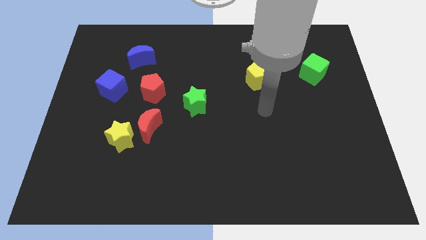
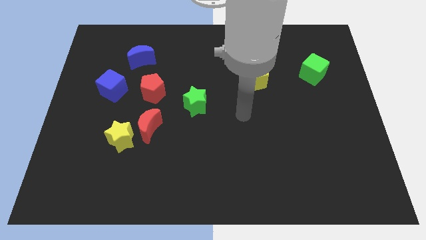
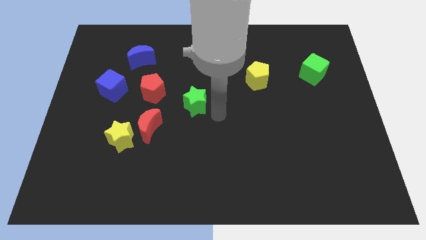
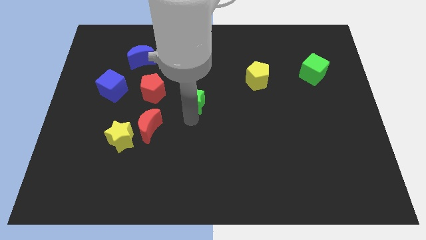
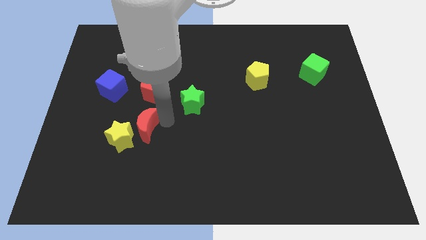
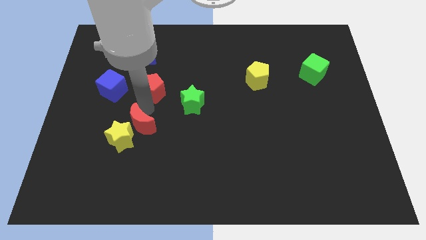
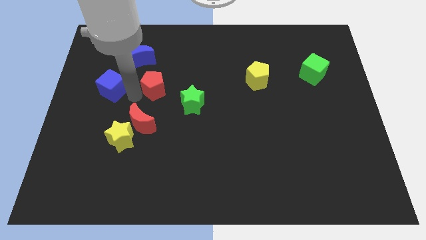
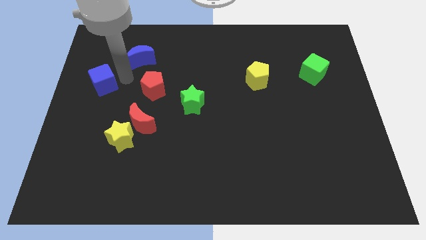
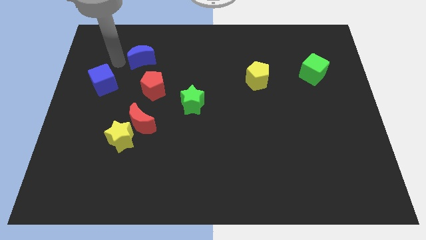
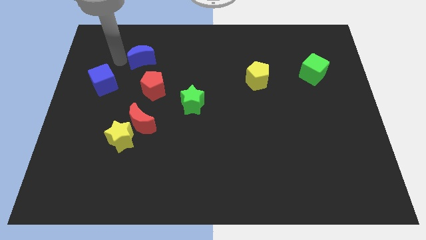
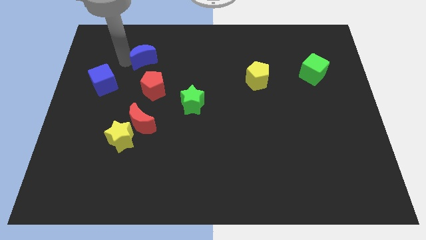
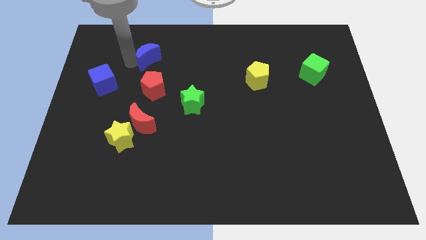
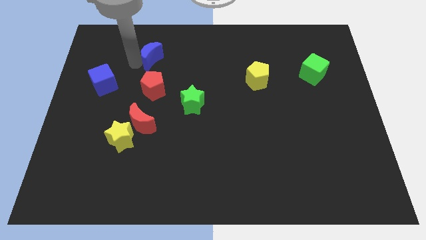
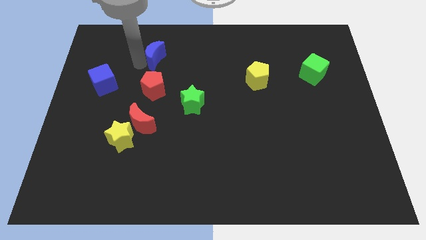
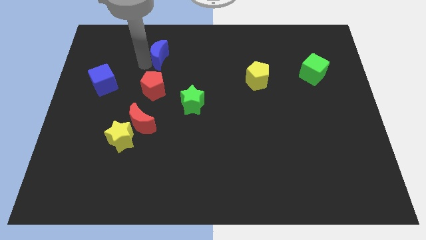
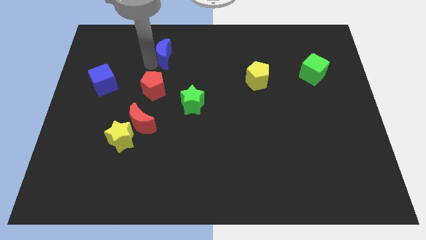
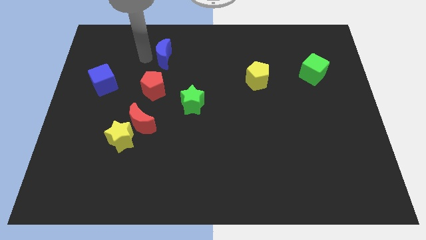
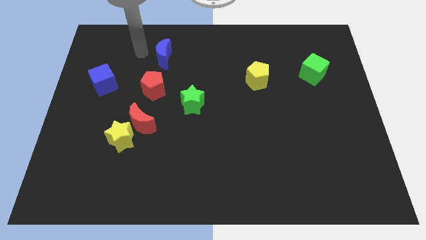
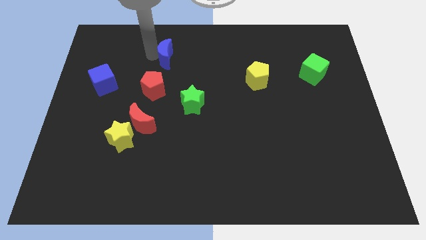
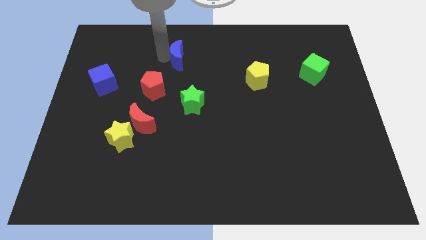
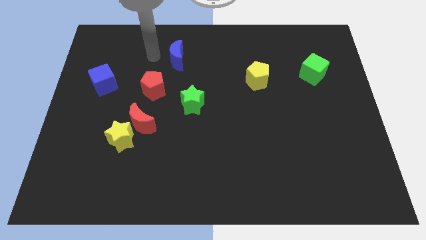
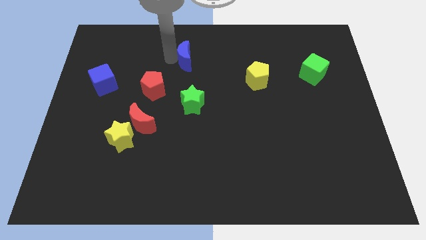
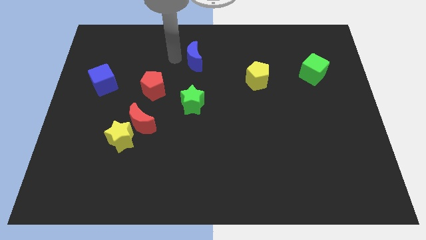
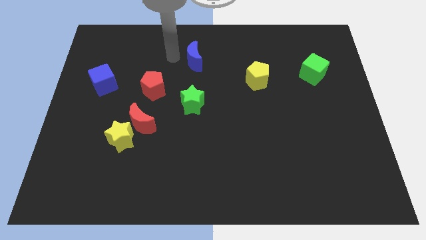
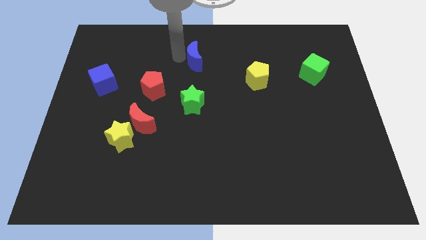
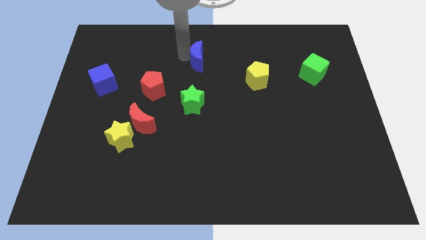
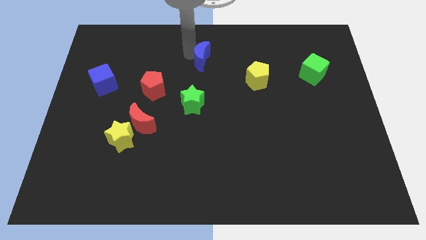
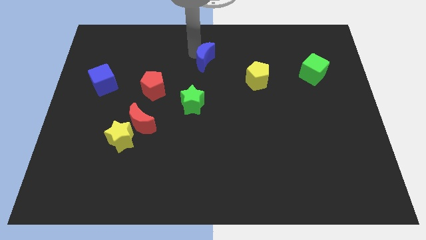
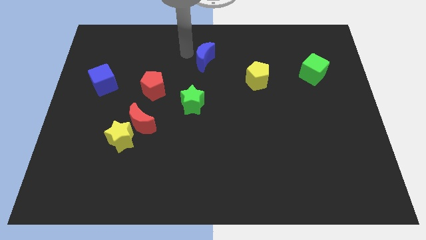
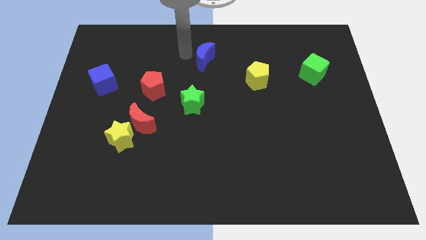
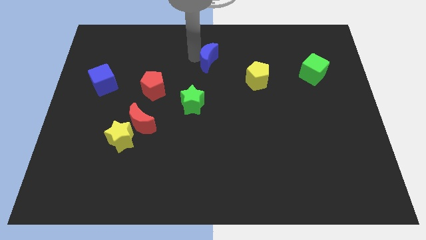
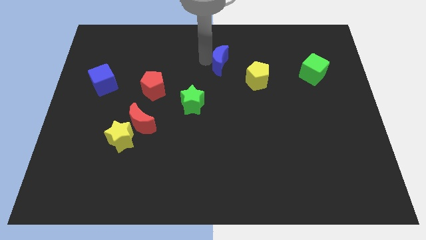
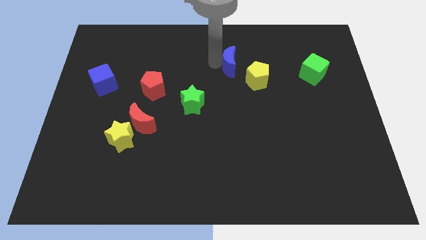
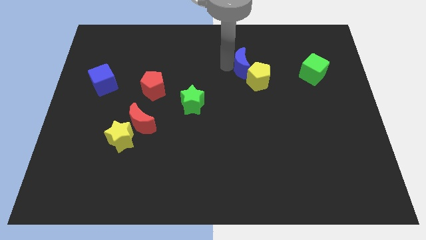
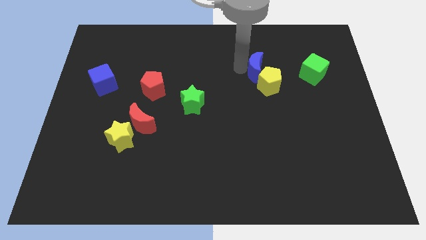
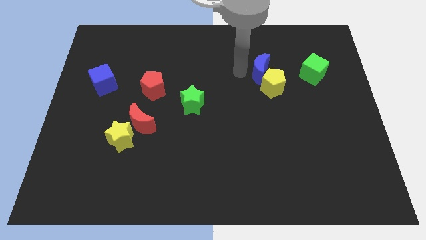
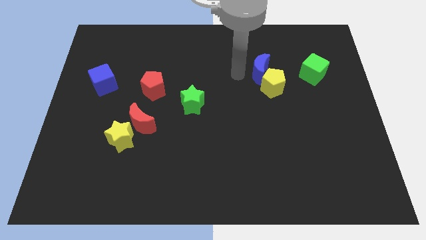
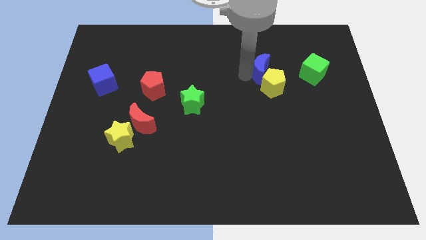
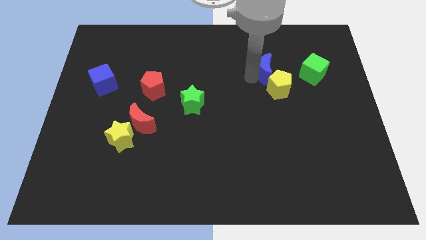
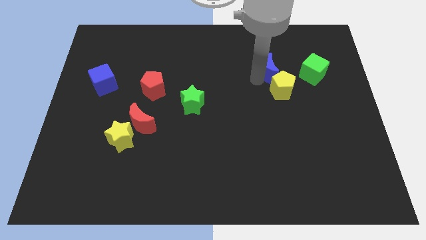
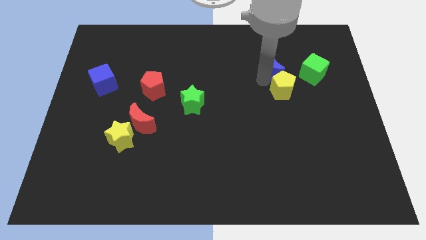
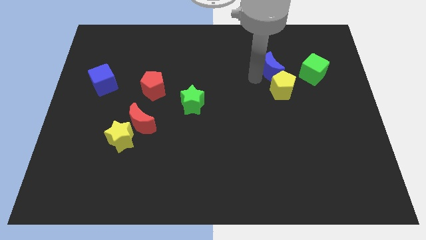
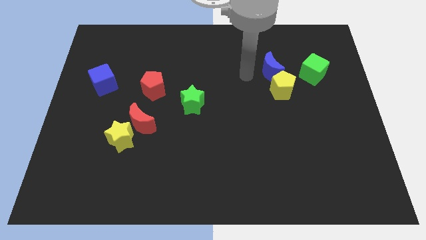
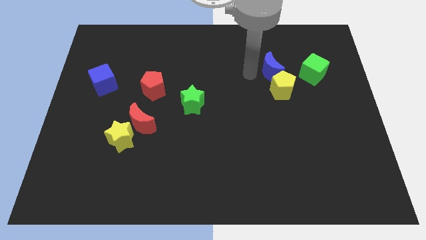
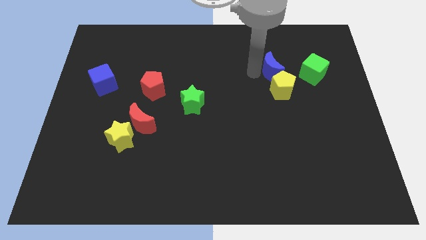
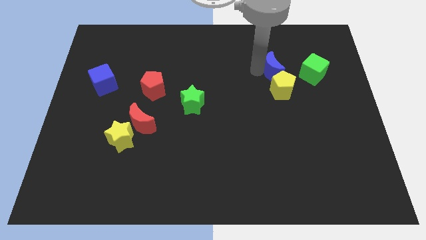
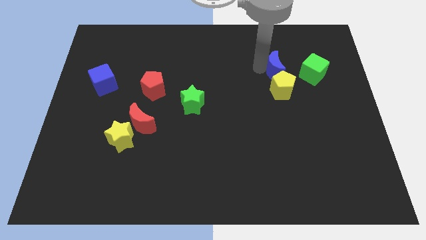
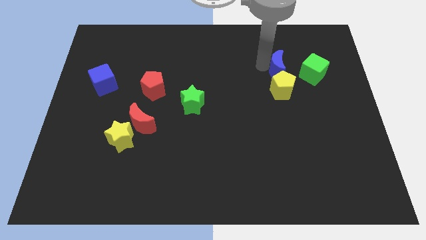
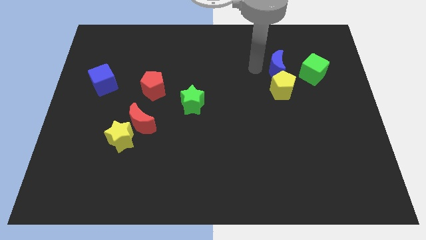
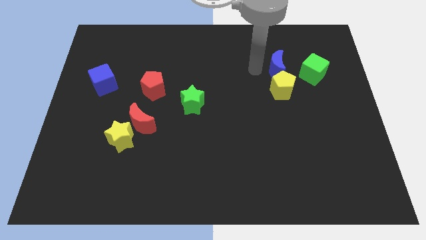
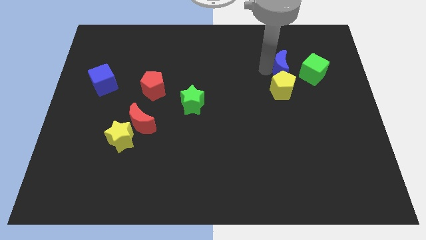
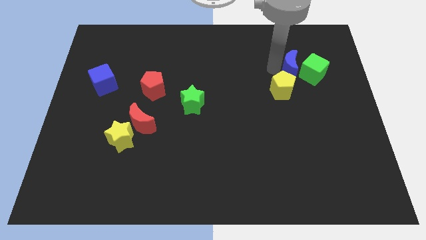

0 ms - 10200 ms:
move the blue moon close to the green cube

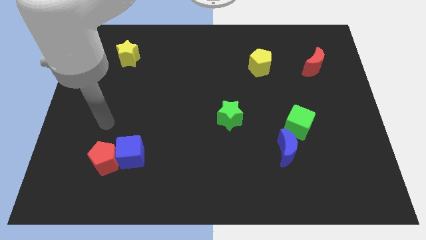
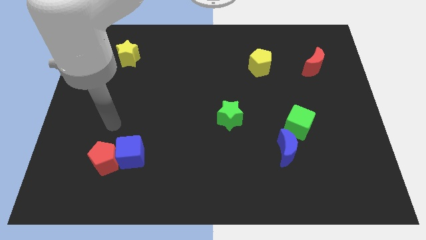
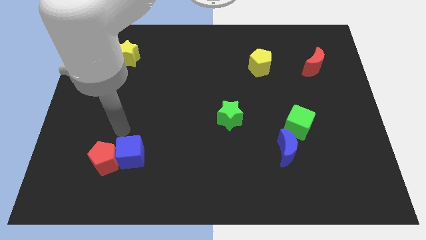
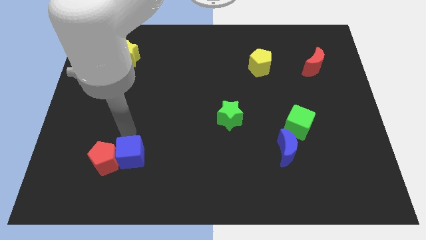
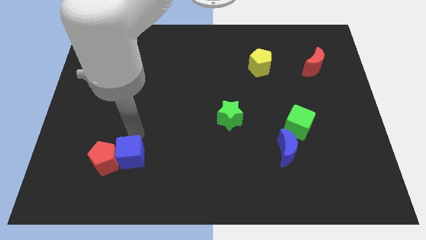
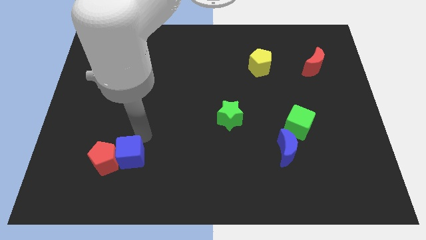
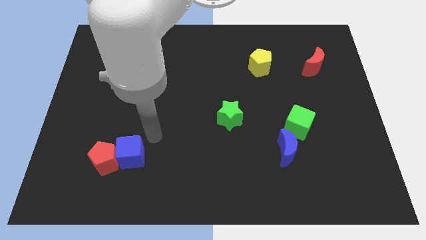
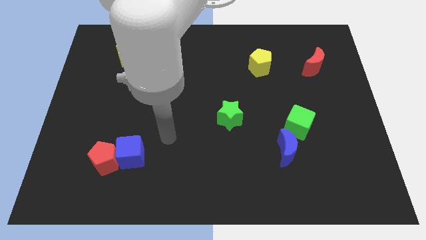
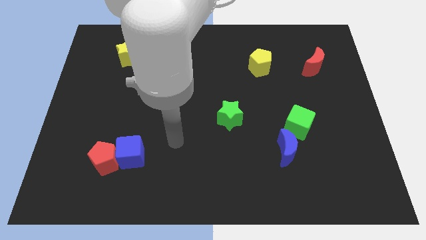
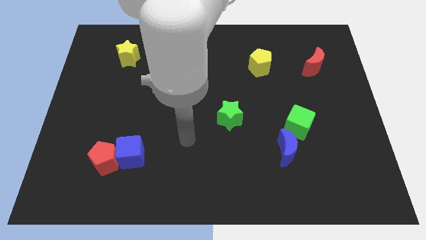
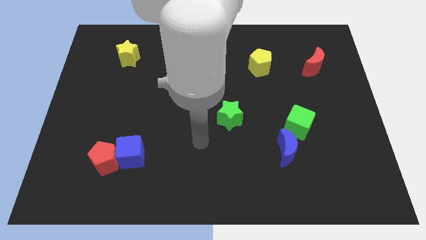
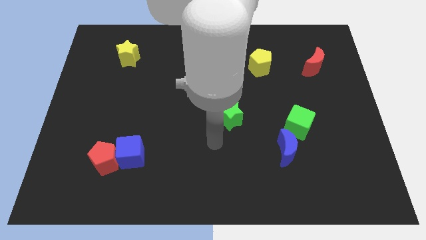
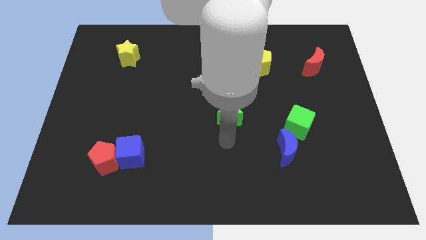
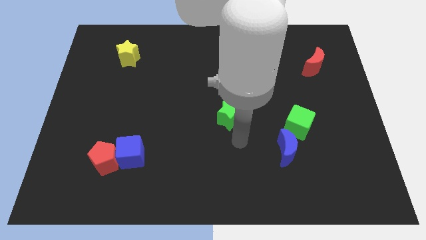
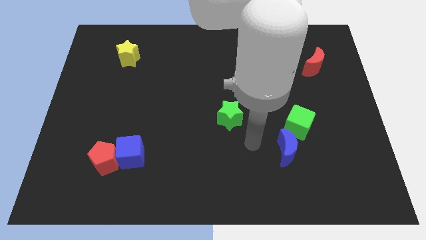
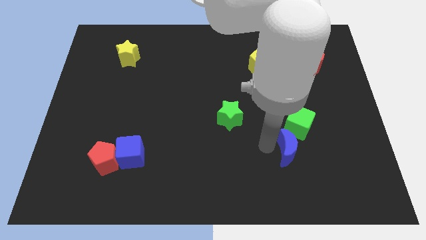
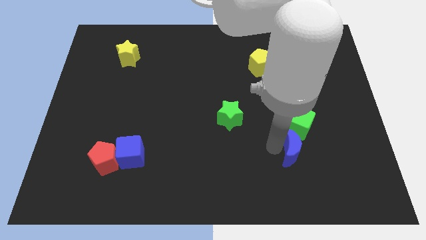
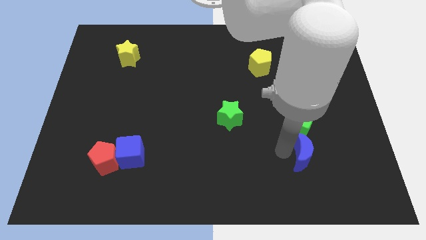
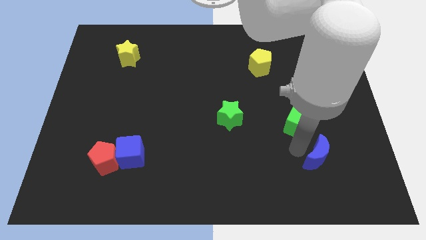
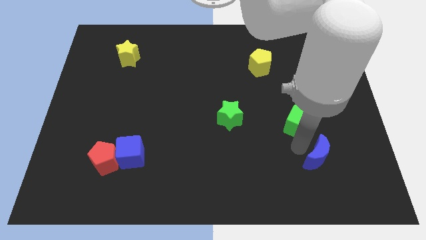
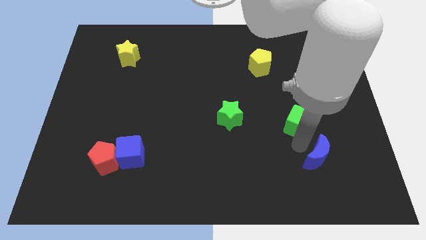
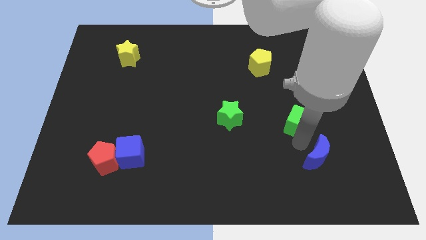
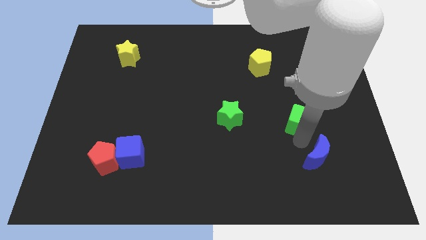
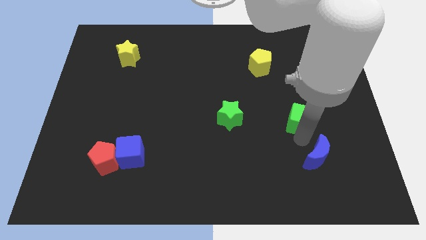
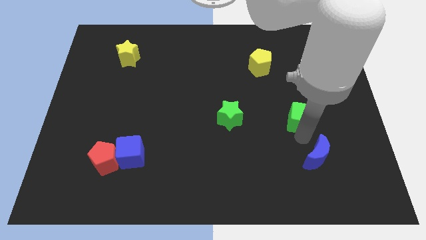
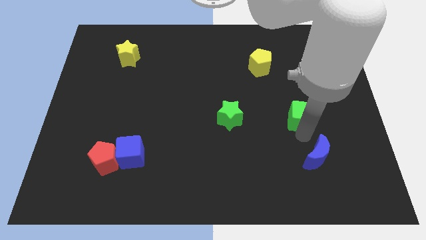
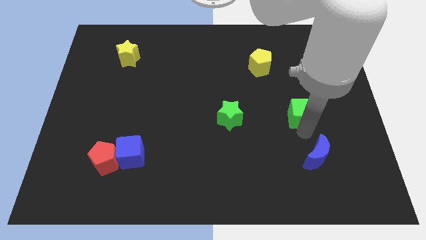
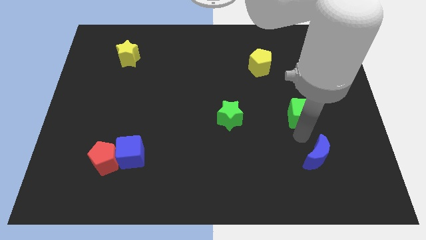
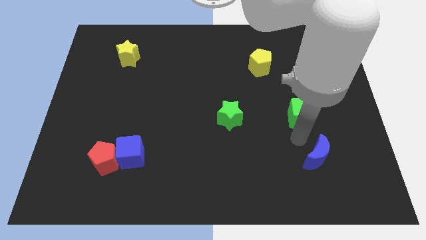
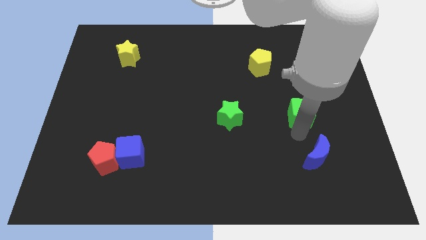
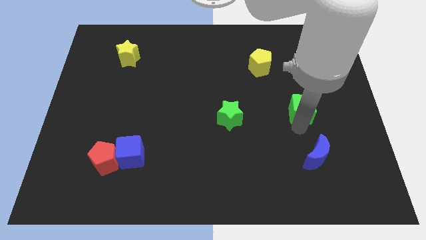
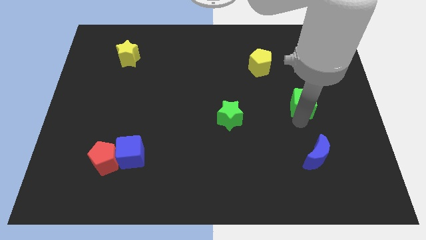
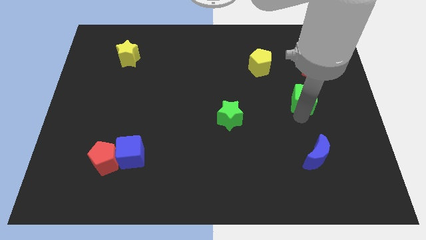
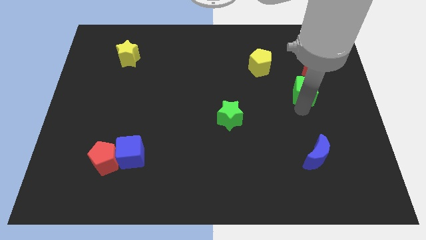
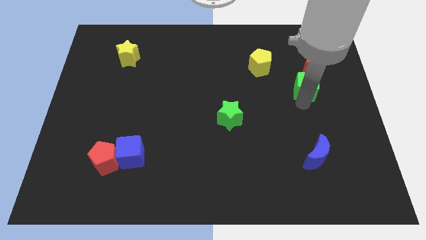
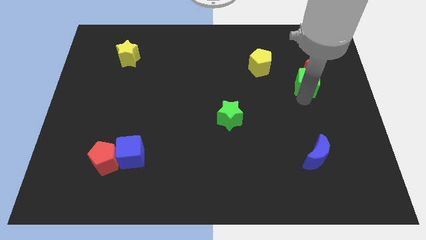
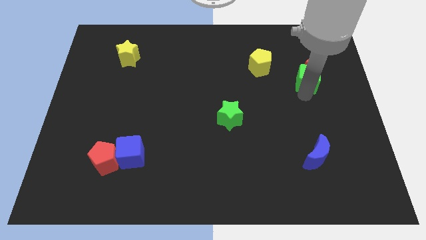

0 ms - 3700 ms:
push the green cube towards the red moon
